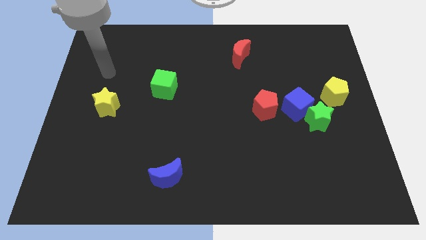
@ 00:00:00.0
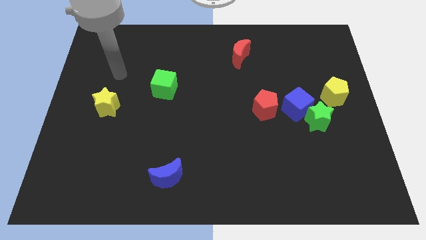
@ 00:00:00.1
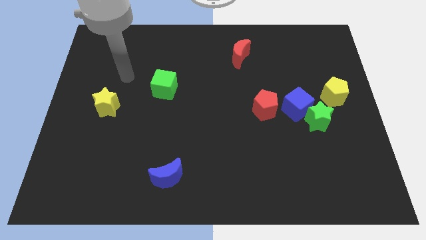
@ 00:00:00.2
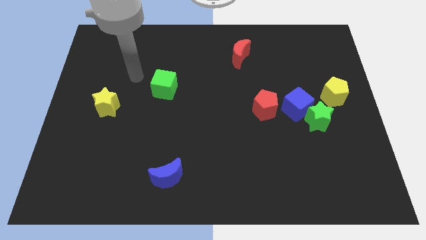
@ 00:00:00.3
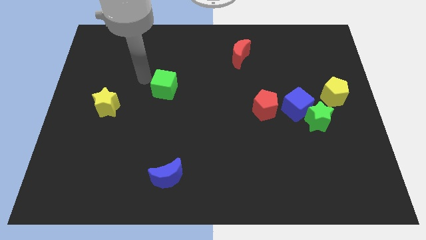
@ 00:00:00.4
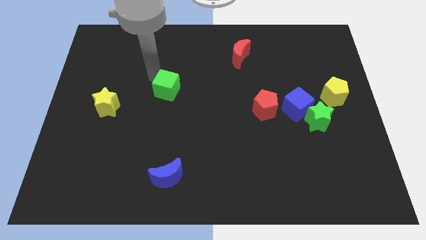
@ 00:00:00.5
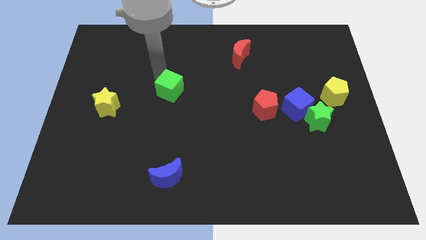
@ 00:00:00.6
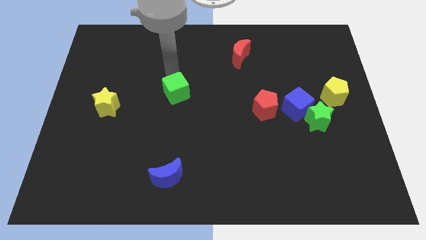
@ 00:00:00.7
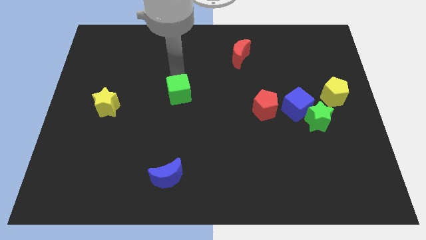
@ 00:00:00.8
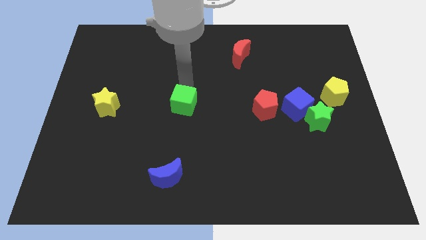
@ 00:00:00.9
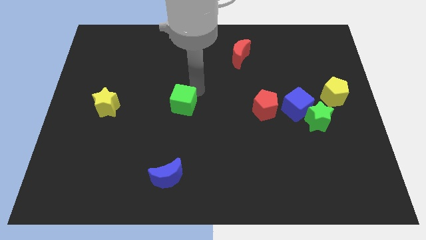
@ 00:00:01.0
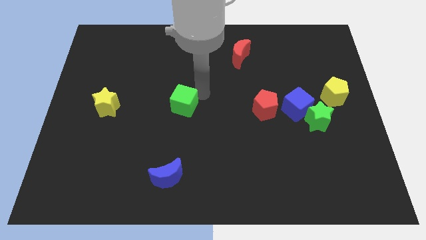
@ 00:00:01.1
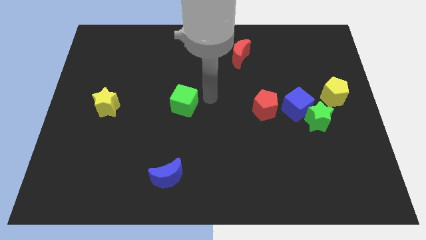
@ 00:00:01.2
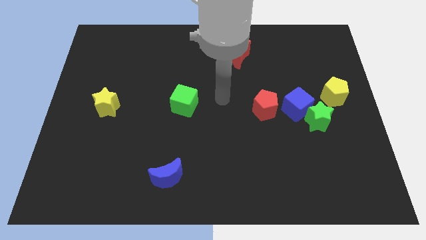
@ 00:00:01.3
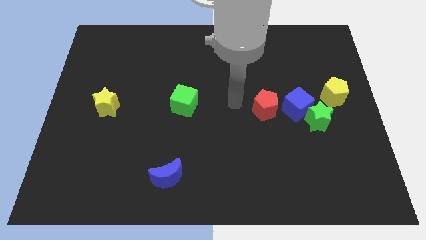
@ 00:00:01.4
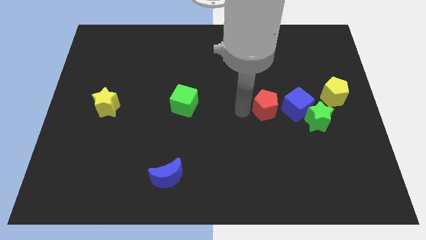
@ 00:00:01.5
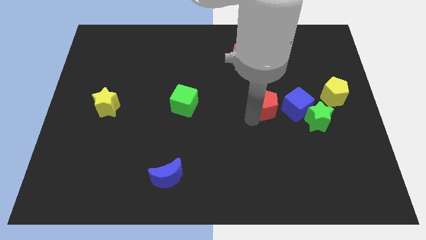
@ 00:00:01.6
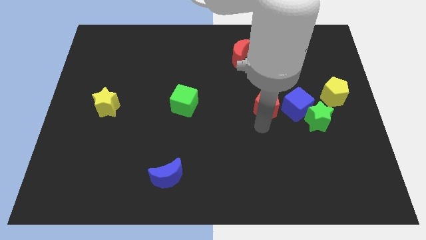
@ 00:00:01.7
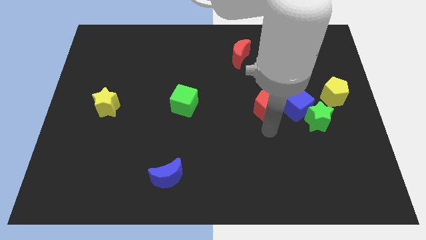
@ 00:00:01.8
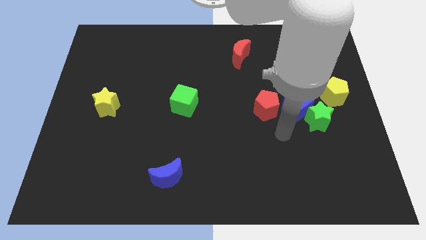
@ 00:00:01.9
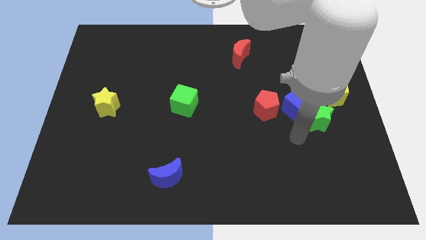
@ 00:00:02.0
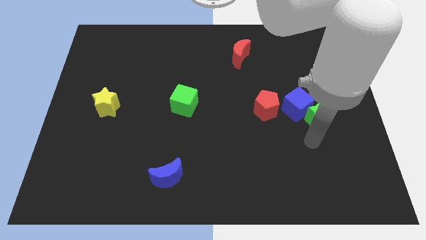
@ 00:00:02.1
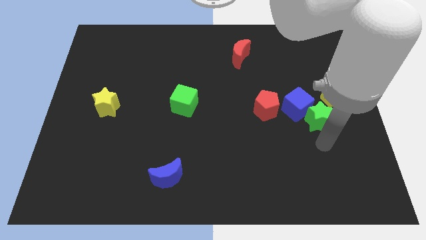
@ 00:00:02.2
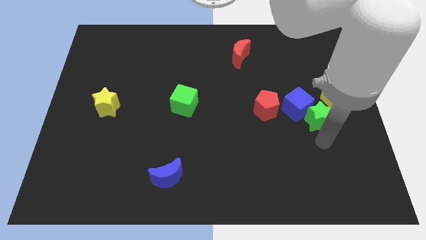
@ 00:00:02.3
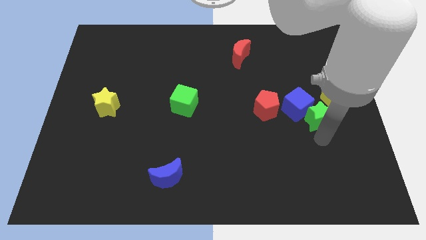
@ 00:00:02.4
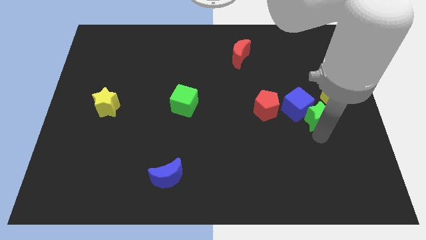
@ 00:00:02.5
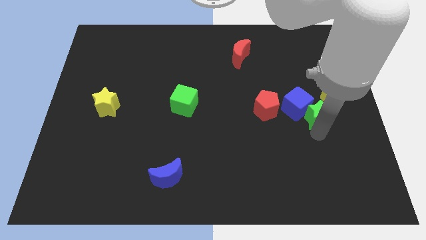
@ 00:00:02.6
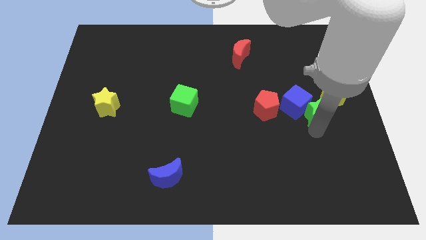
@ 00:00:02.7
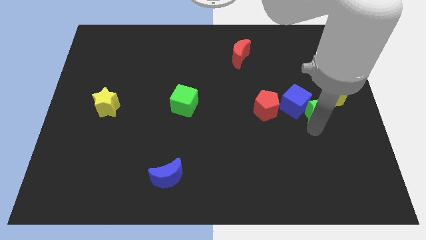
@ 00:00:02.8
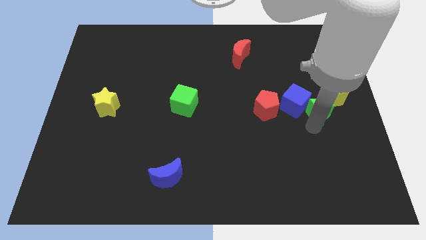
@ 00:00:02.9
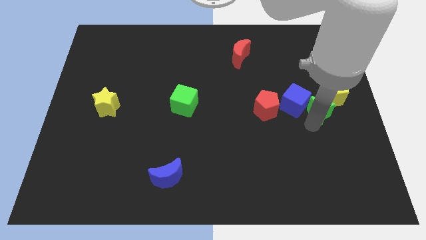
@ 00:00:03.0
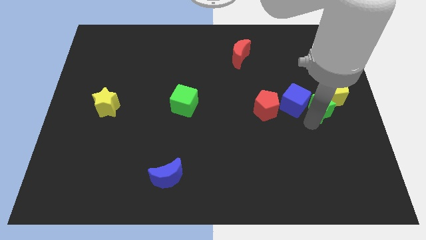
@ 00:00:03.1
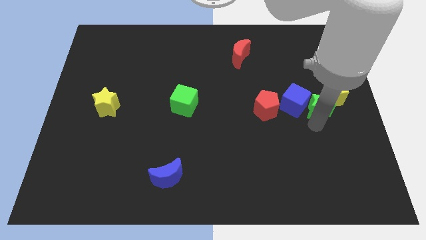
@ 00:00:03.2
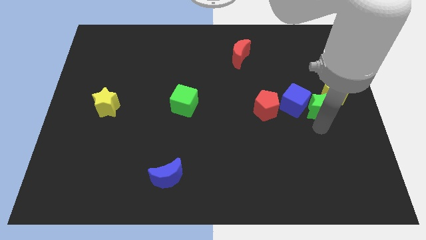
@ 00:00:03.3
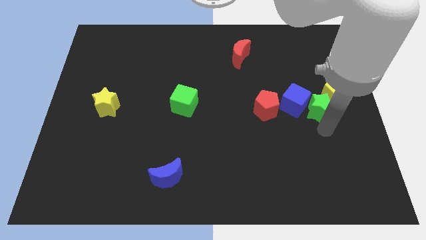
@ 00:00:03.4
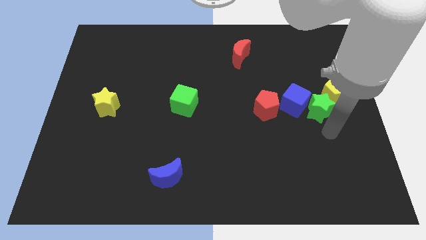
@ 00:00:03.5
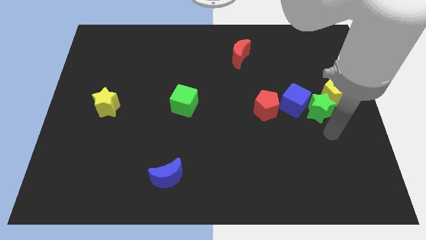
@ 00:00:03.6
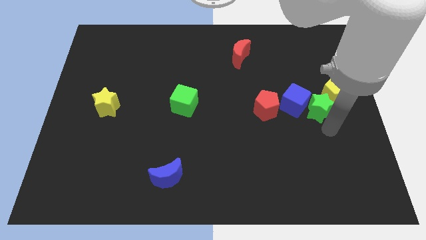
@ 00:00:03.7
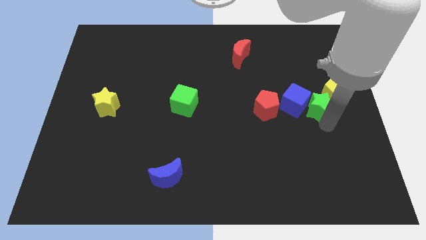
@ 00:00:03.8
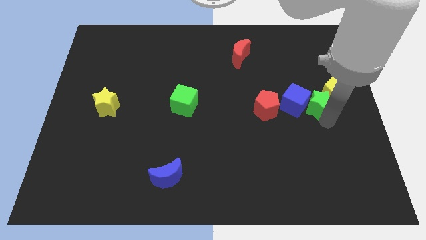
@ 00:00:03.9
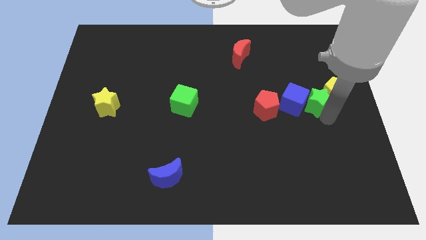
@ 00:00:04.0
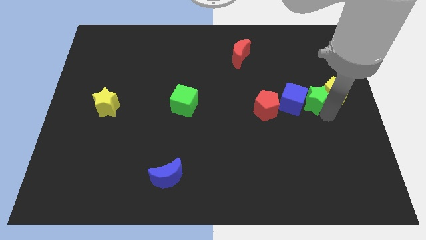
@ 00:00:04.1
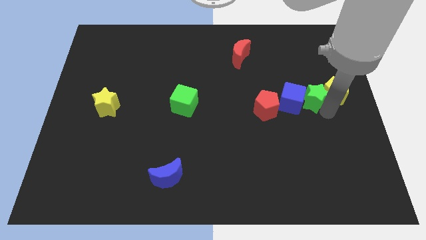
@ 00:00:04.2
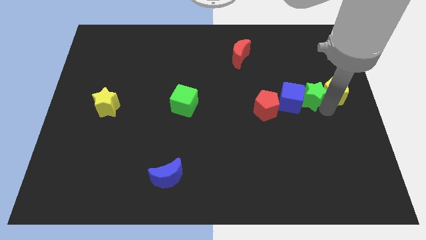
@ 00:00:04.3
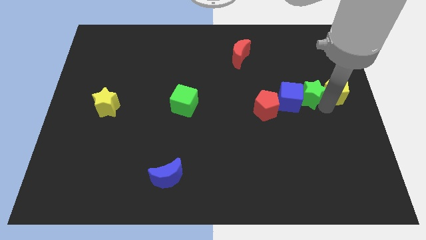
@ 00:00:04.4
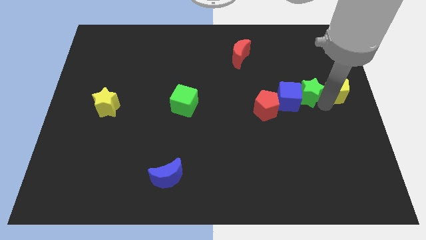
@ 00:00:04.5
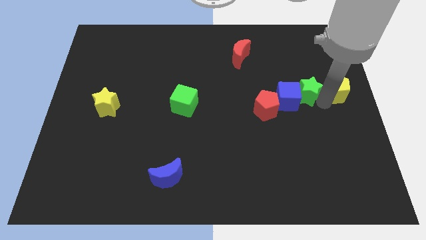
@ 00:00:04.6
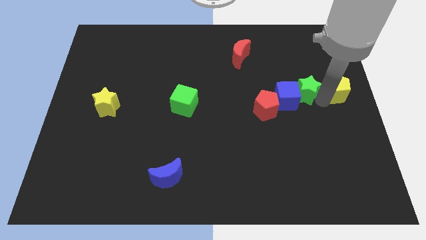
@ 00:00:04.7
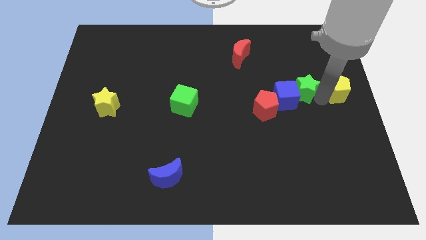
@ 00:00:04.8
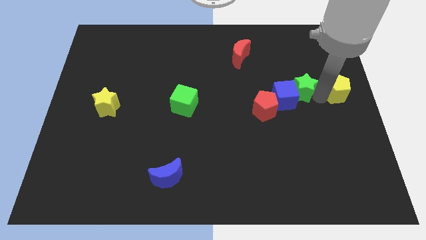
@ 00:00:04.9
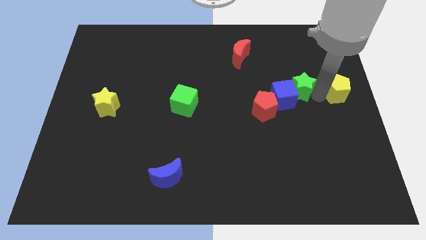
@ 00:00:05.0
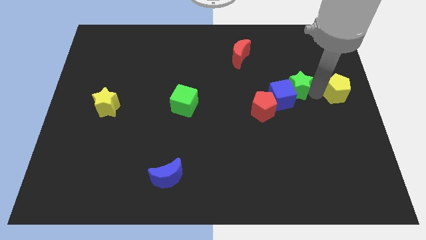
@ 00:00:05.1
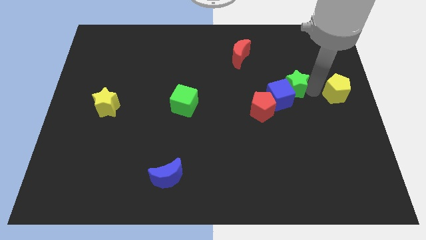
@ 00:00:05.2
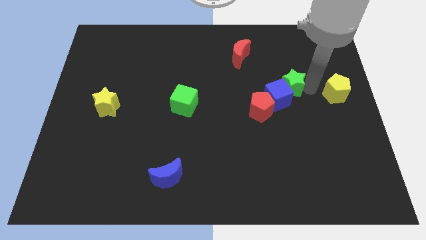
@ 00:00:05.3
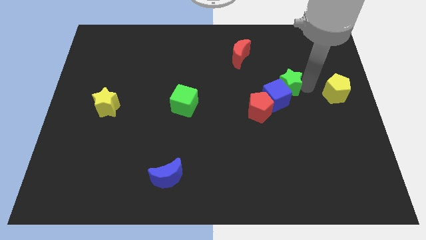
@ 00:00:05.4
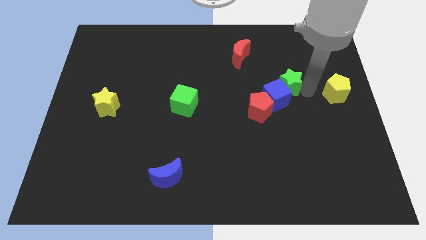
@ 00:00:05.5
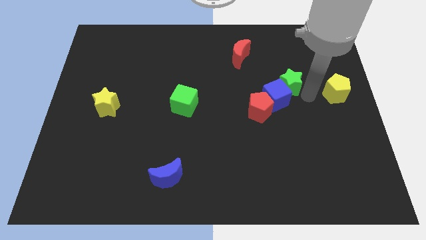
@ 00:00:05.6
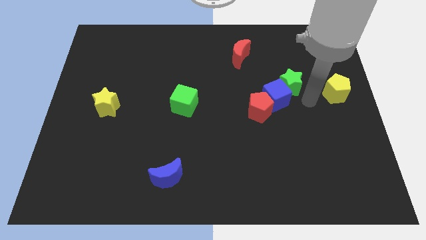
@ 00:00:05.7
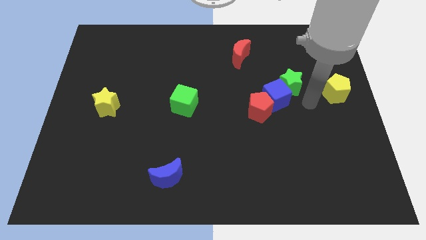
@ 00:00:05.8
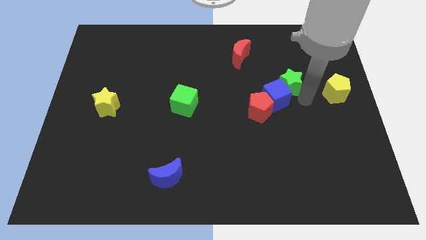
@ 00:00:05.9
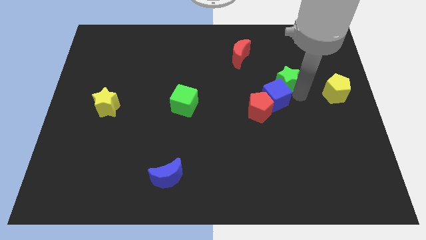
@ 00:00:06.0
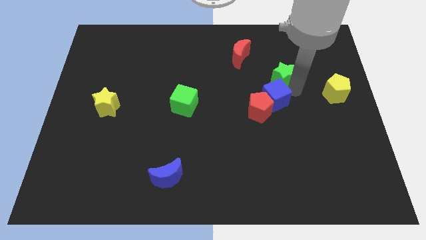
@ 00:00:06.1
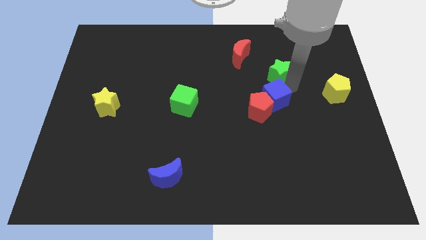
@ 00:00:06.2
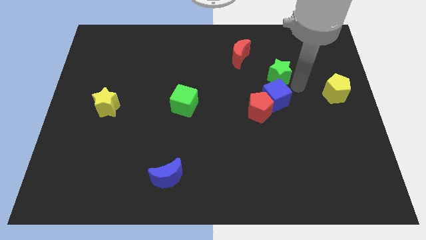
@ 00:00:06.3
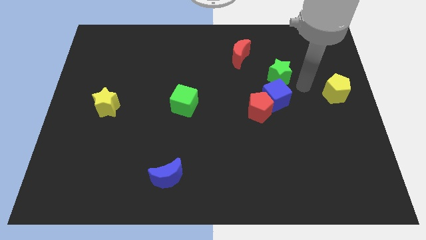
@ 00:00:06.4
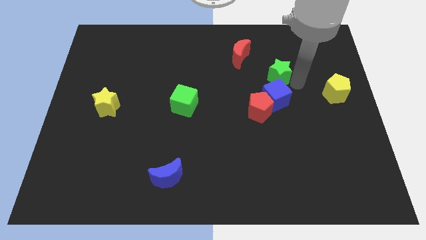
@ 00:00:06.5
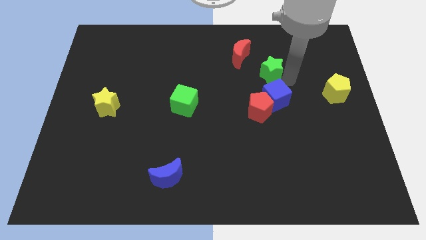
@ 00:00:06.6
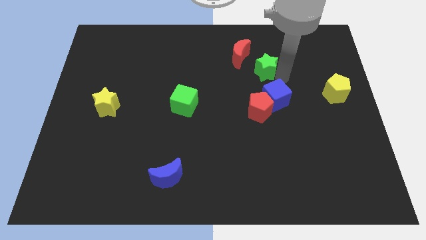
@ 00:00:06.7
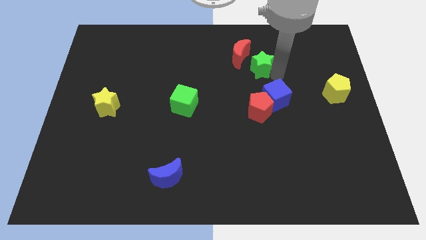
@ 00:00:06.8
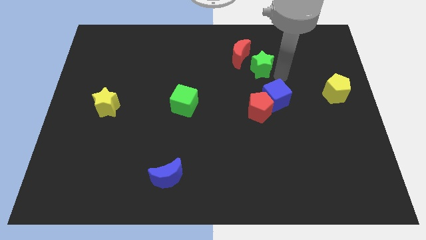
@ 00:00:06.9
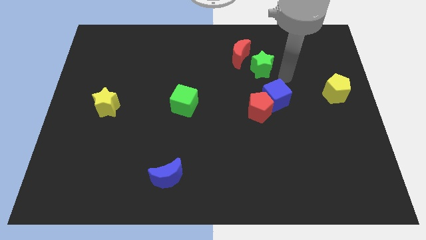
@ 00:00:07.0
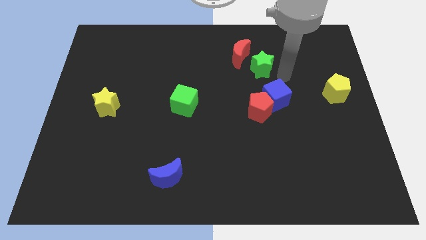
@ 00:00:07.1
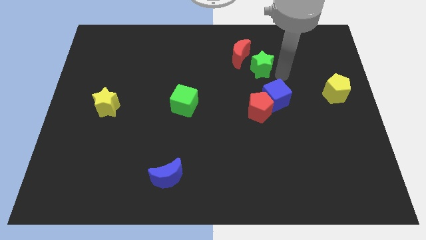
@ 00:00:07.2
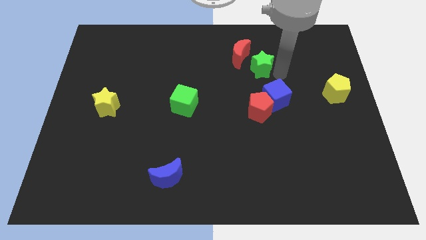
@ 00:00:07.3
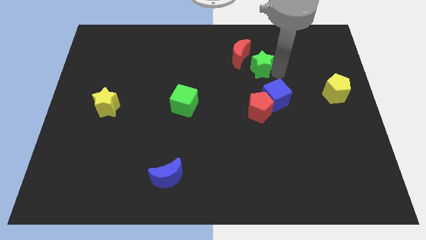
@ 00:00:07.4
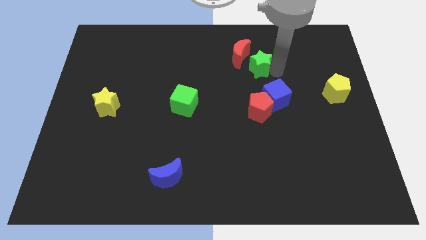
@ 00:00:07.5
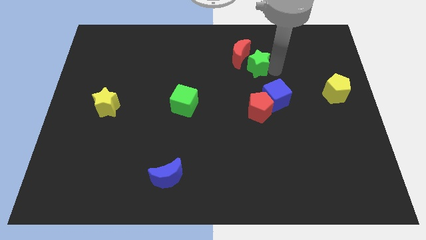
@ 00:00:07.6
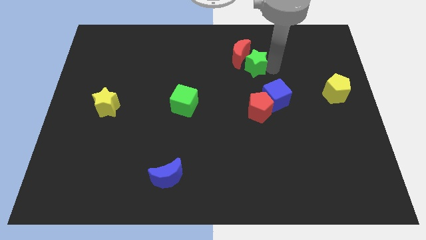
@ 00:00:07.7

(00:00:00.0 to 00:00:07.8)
push the green star next to the red moon
